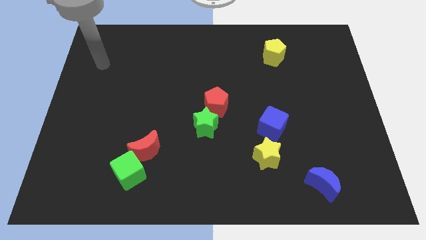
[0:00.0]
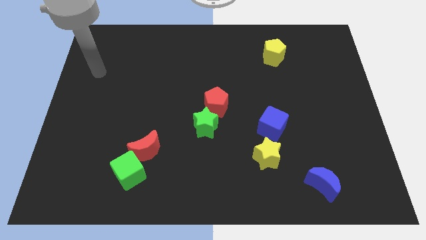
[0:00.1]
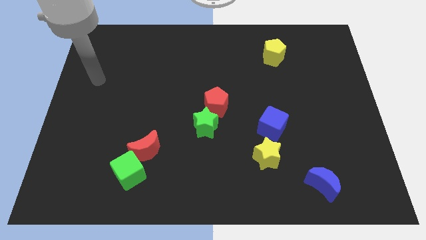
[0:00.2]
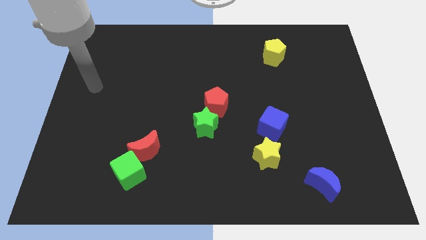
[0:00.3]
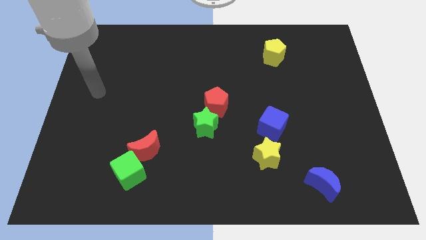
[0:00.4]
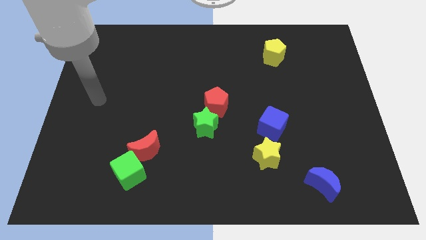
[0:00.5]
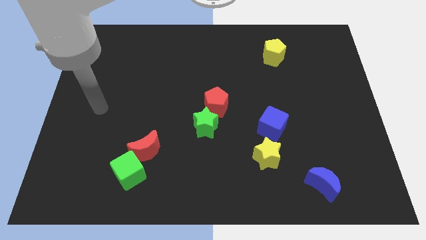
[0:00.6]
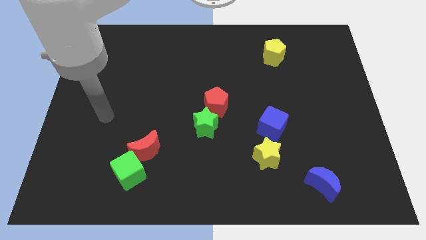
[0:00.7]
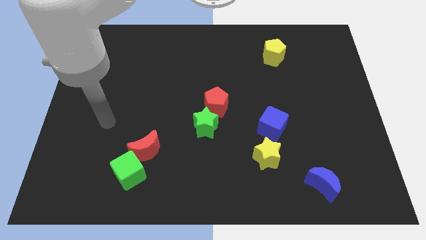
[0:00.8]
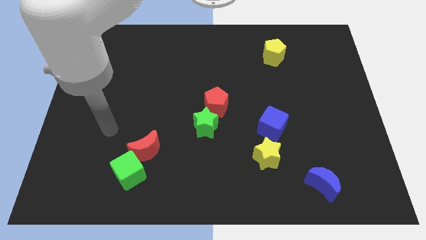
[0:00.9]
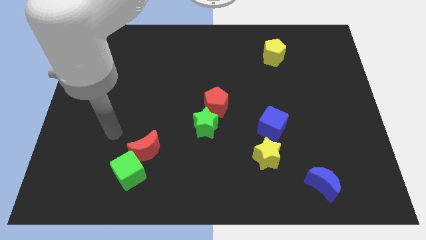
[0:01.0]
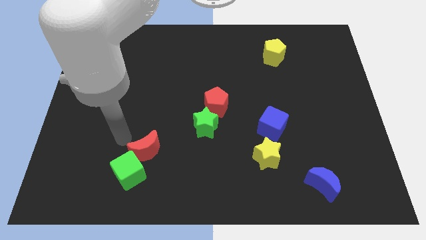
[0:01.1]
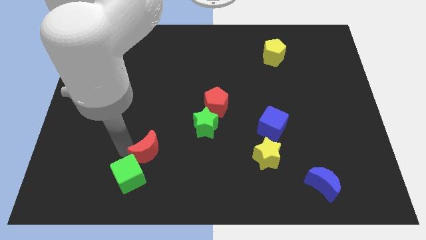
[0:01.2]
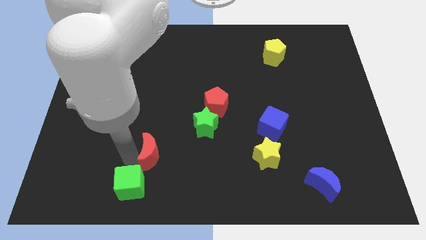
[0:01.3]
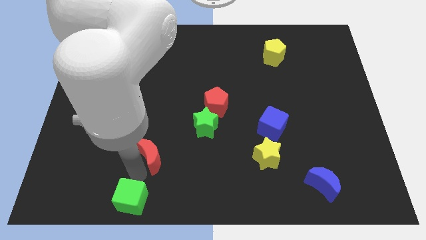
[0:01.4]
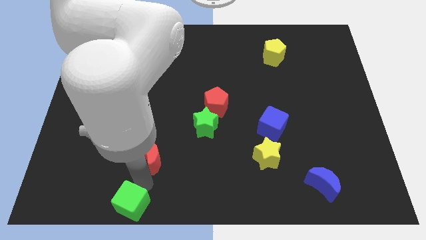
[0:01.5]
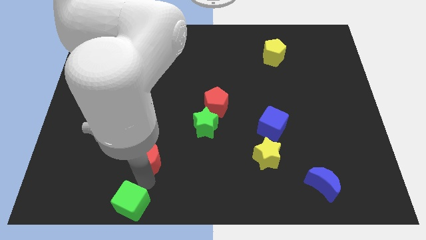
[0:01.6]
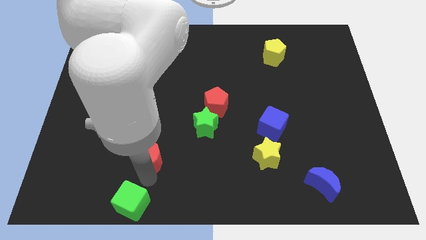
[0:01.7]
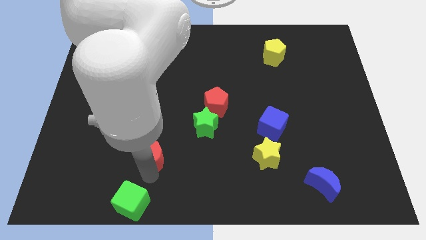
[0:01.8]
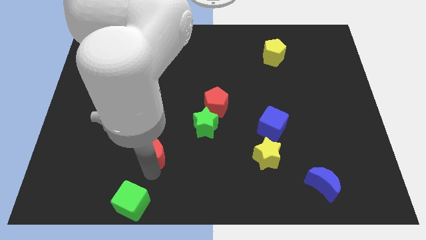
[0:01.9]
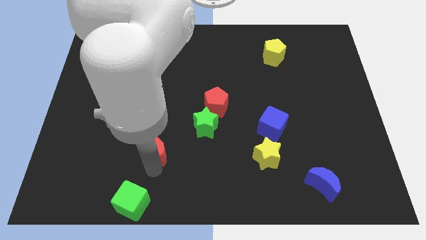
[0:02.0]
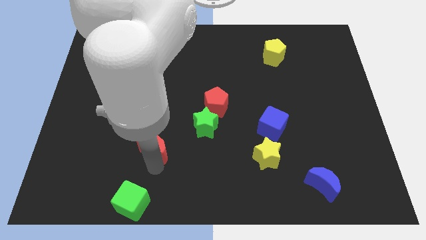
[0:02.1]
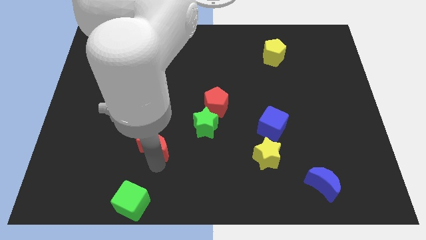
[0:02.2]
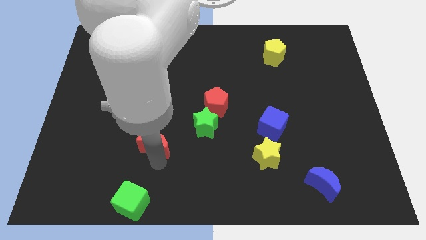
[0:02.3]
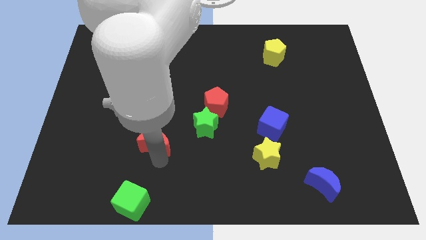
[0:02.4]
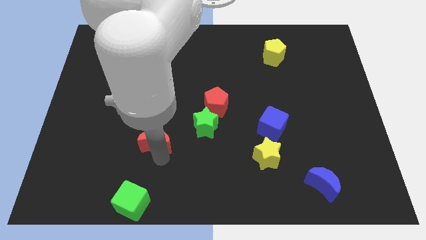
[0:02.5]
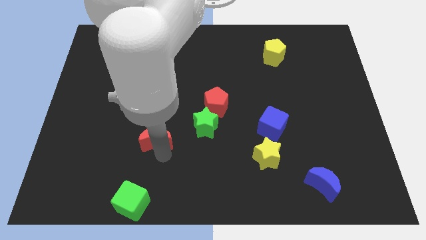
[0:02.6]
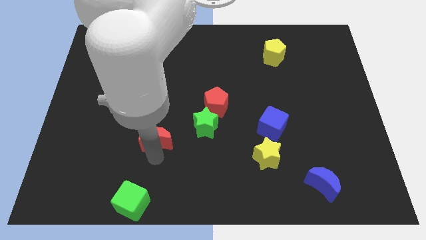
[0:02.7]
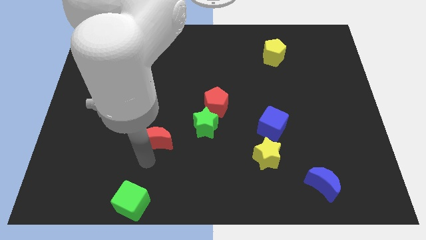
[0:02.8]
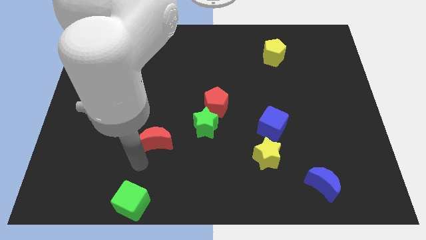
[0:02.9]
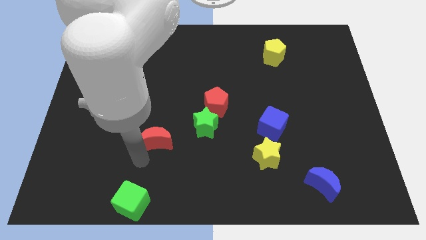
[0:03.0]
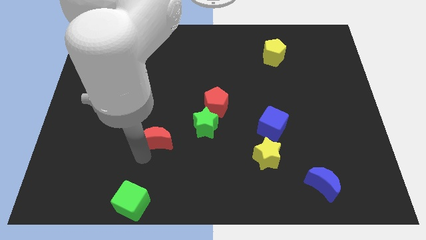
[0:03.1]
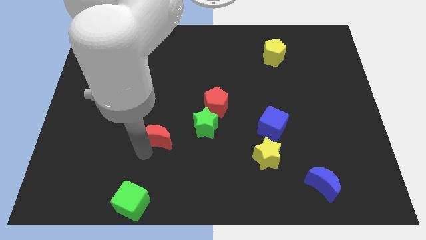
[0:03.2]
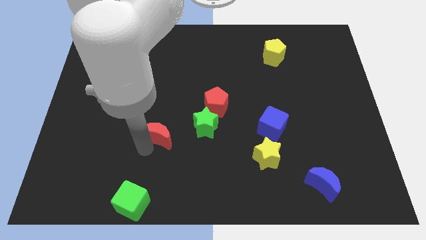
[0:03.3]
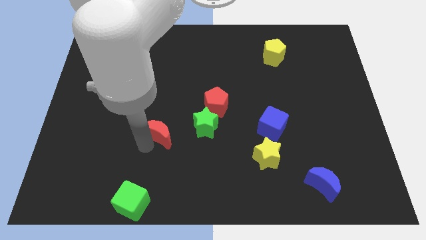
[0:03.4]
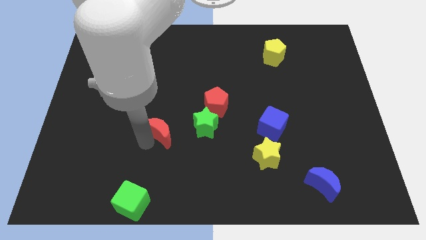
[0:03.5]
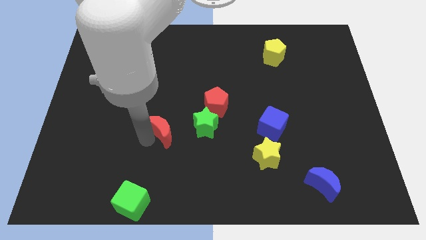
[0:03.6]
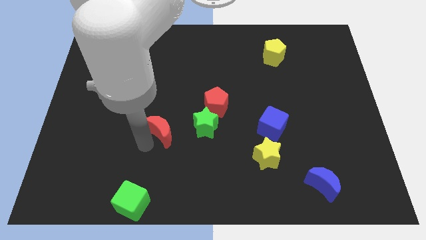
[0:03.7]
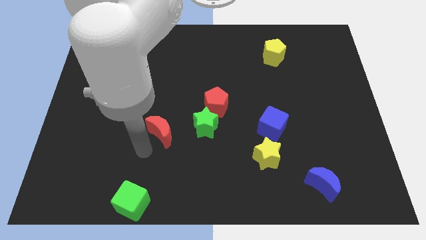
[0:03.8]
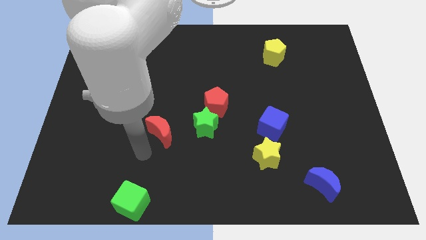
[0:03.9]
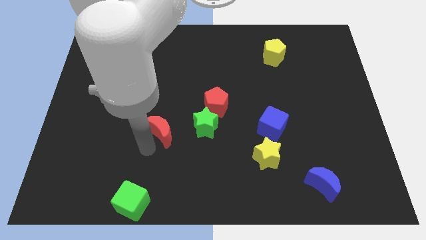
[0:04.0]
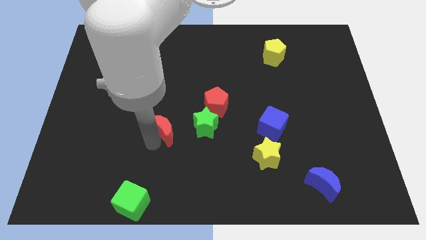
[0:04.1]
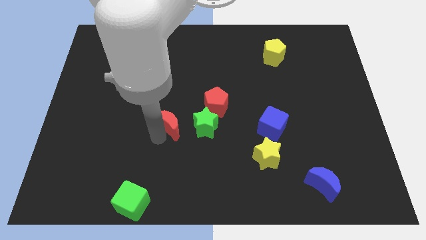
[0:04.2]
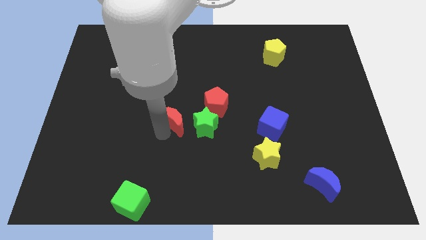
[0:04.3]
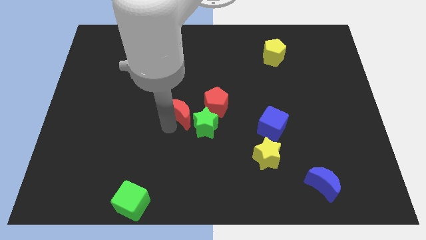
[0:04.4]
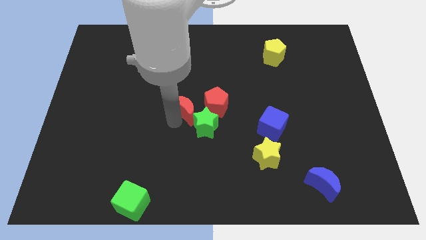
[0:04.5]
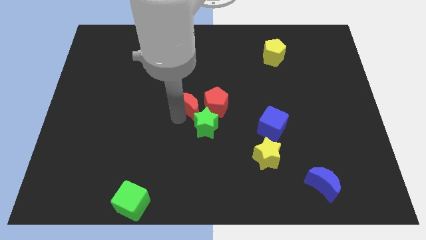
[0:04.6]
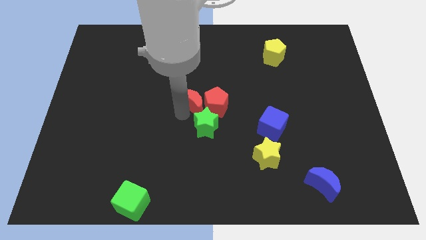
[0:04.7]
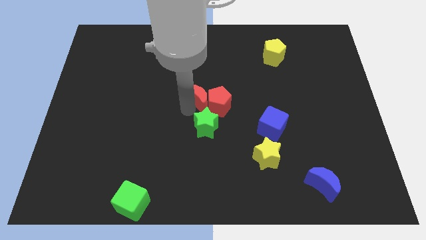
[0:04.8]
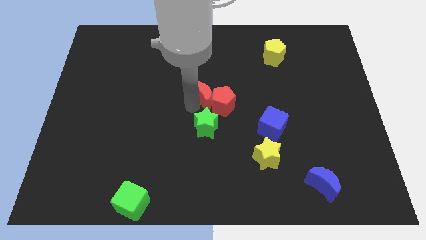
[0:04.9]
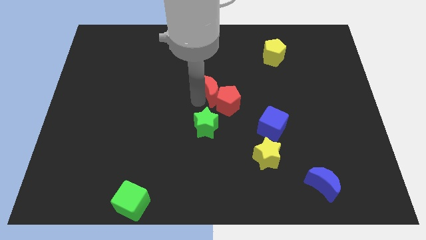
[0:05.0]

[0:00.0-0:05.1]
push the red moon up and to the right diagonally

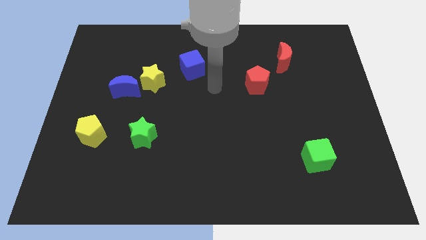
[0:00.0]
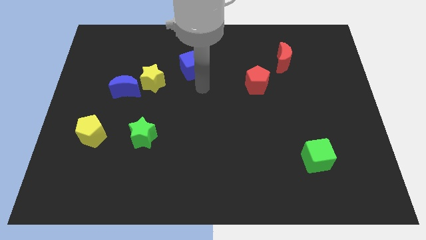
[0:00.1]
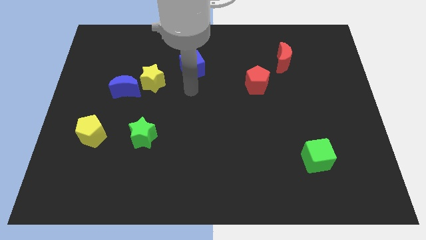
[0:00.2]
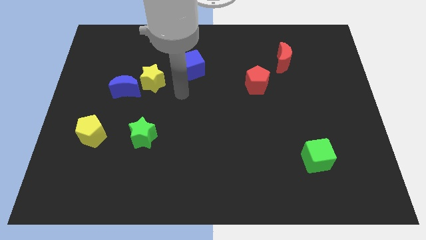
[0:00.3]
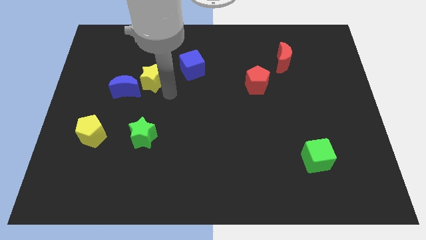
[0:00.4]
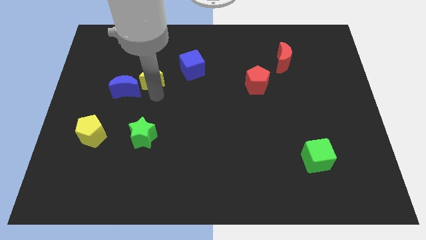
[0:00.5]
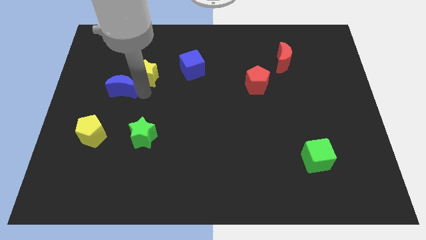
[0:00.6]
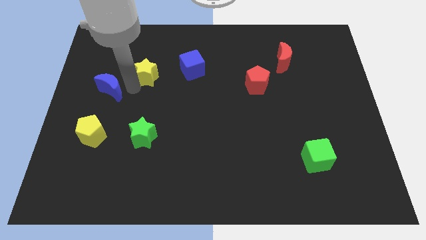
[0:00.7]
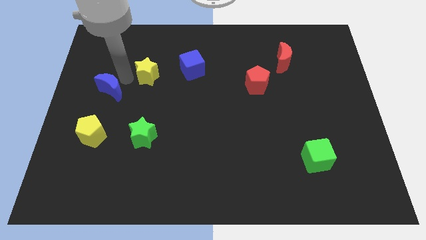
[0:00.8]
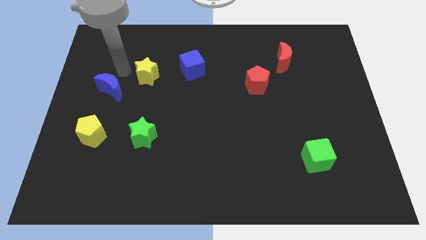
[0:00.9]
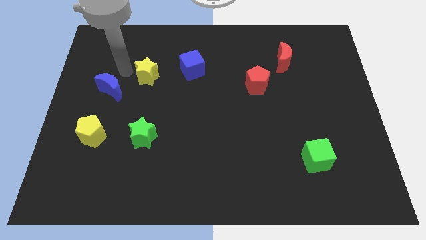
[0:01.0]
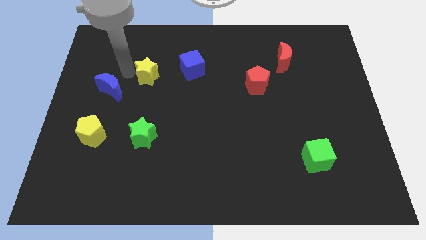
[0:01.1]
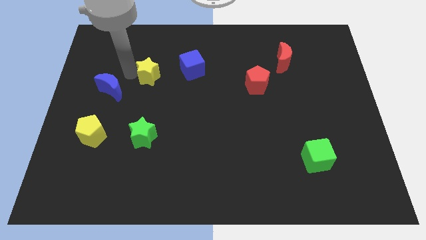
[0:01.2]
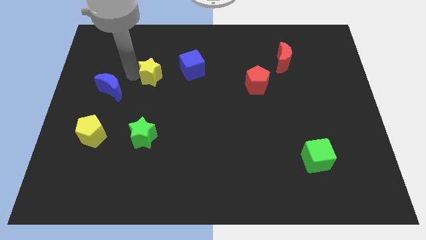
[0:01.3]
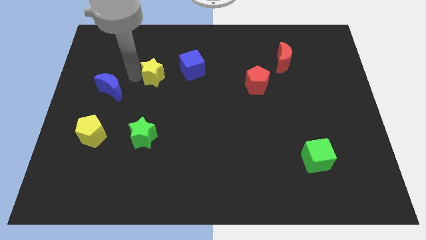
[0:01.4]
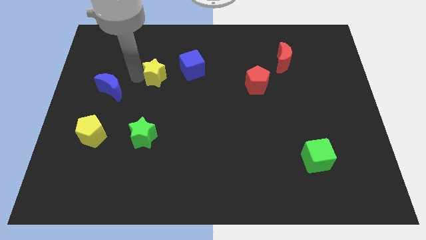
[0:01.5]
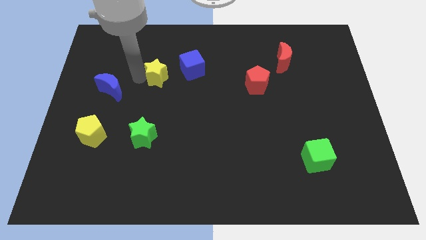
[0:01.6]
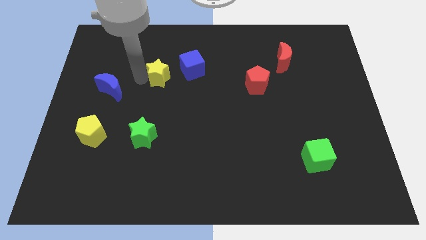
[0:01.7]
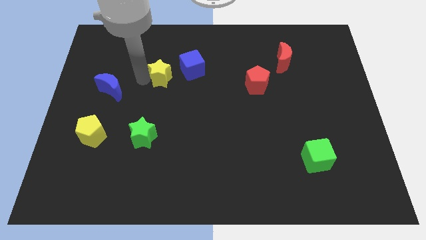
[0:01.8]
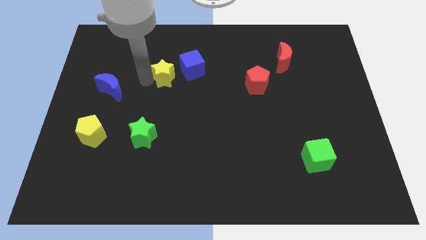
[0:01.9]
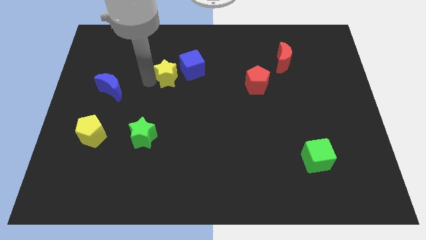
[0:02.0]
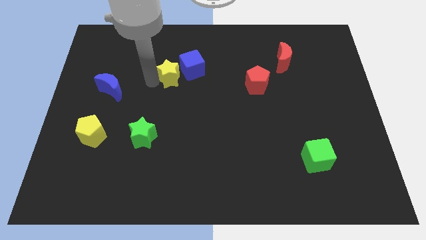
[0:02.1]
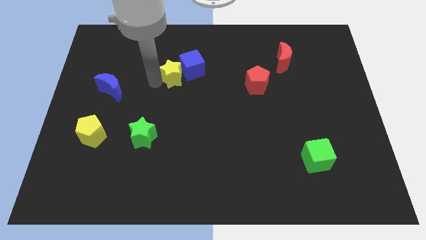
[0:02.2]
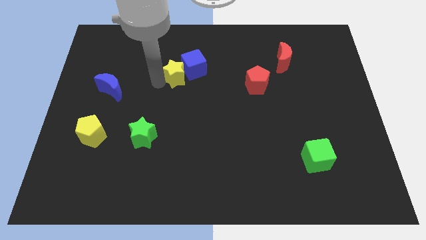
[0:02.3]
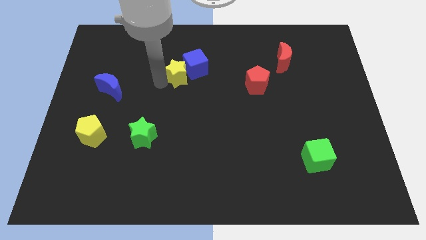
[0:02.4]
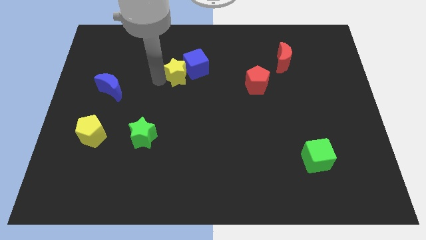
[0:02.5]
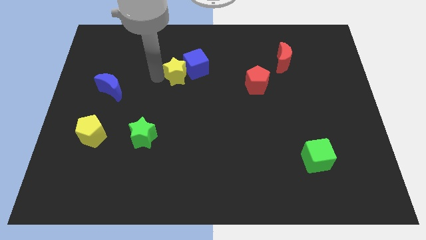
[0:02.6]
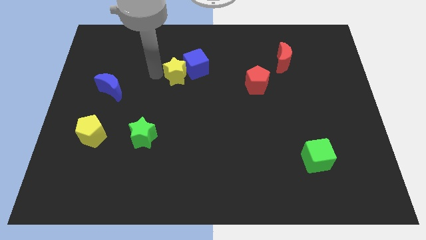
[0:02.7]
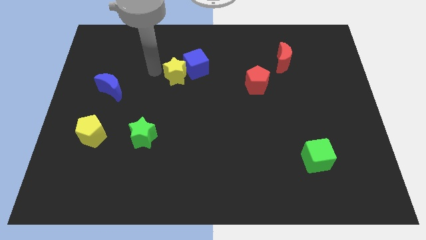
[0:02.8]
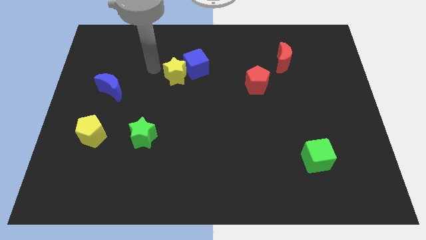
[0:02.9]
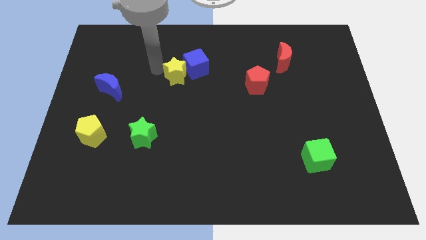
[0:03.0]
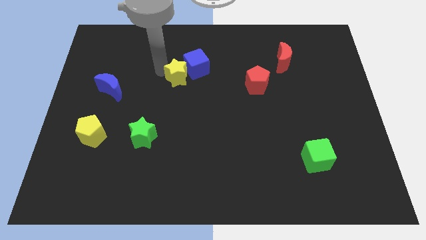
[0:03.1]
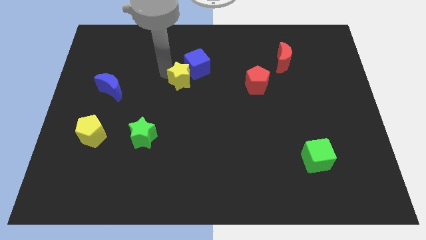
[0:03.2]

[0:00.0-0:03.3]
slide the yellow star to the right a bit
